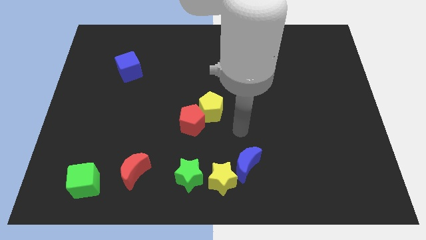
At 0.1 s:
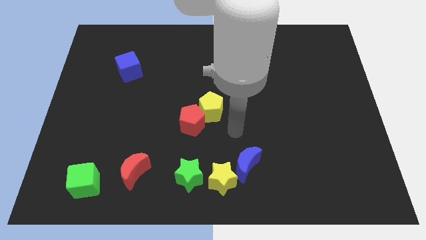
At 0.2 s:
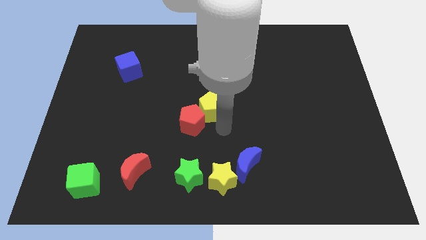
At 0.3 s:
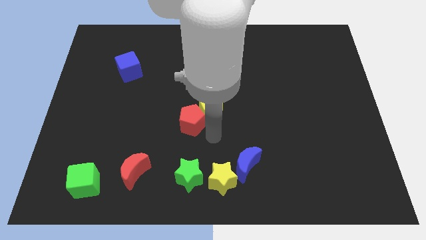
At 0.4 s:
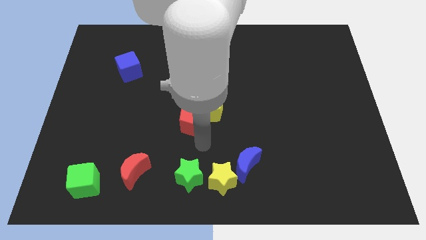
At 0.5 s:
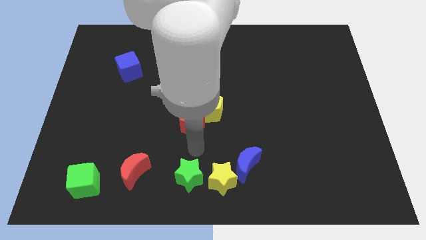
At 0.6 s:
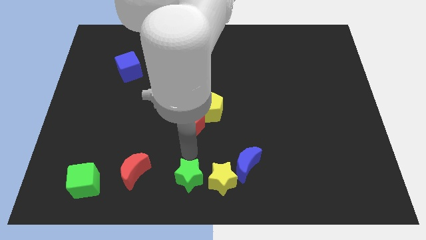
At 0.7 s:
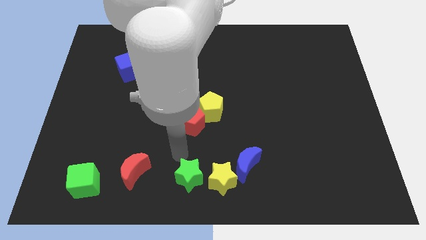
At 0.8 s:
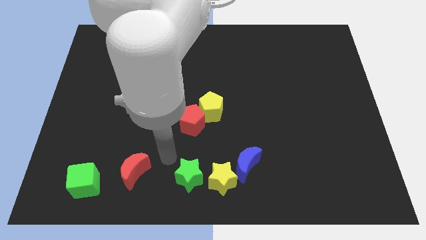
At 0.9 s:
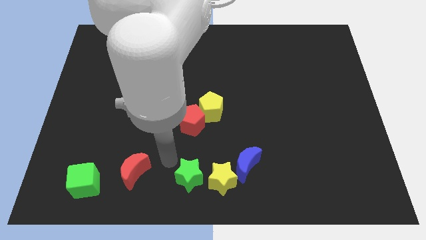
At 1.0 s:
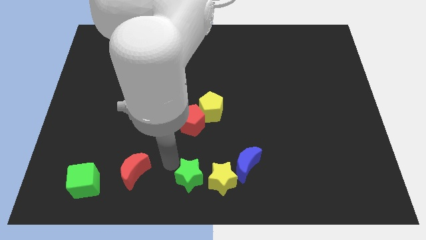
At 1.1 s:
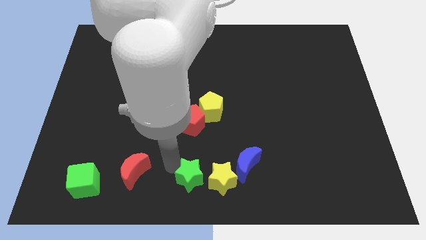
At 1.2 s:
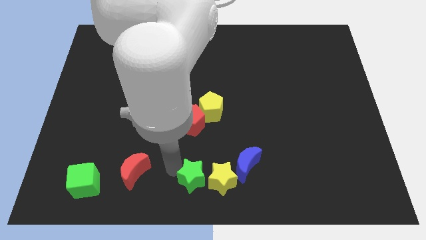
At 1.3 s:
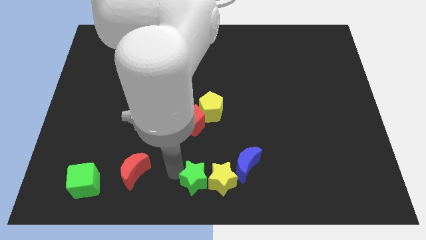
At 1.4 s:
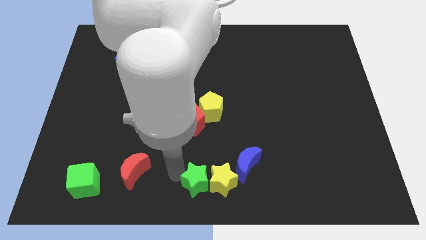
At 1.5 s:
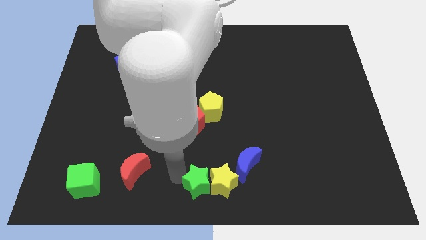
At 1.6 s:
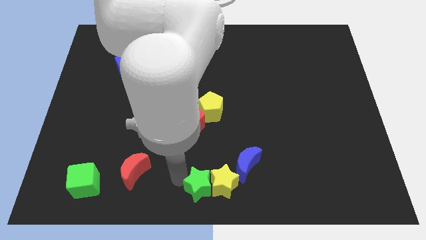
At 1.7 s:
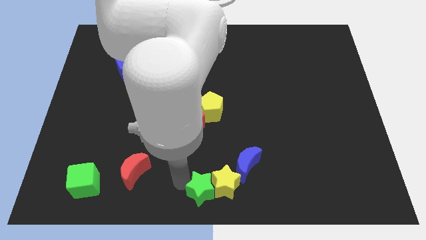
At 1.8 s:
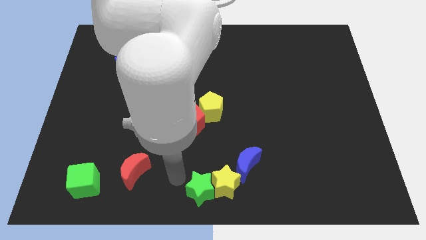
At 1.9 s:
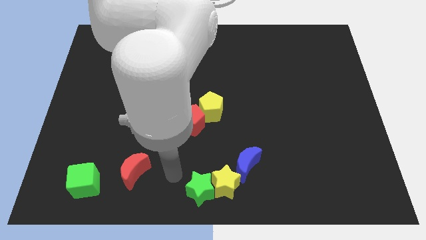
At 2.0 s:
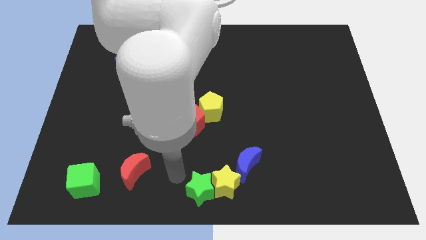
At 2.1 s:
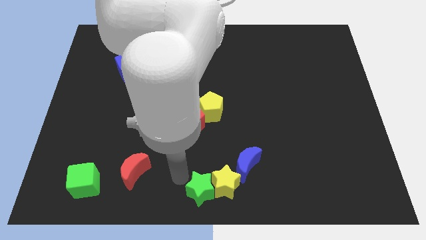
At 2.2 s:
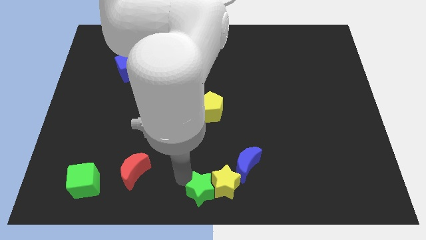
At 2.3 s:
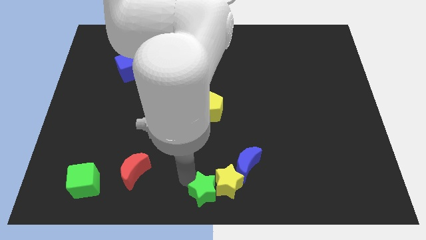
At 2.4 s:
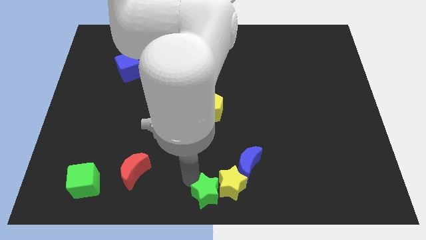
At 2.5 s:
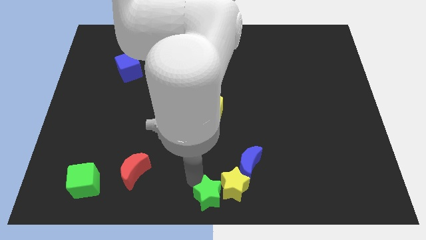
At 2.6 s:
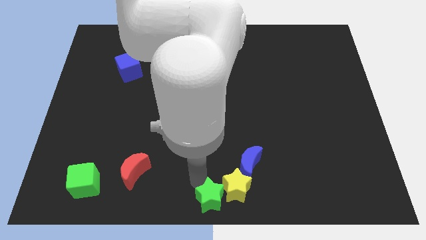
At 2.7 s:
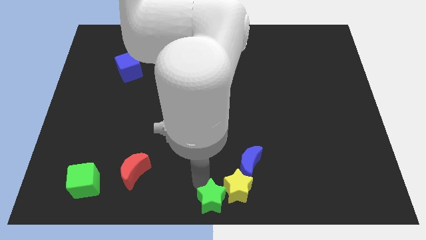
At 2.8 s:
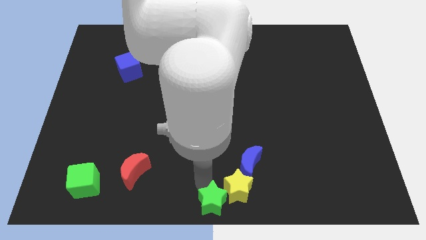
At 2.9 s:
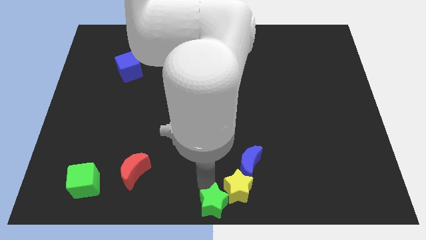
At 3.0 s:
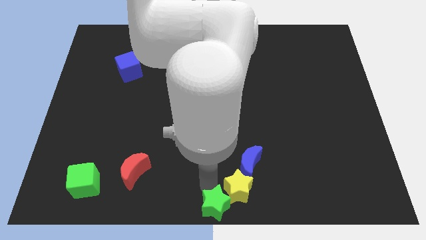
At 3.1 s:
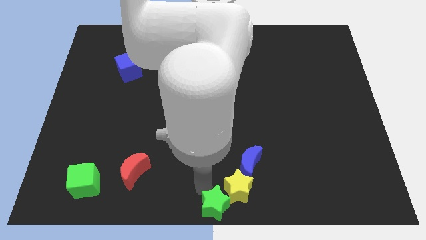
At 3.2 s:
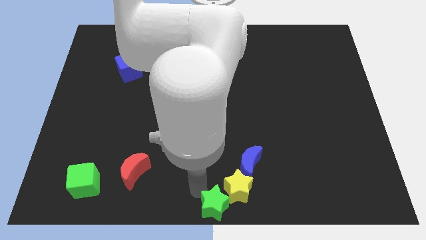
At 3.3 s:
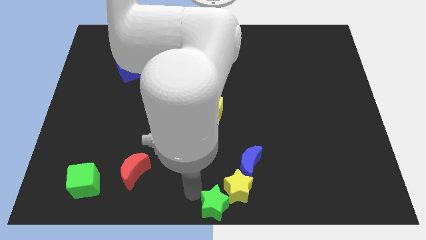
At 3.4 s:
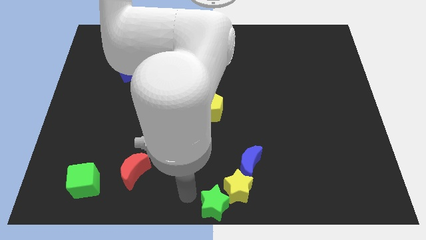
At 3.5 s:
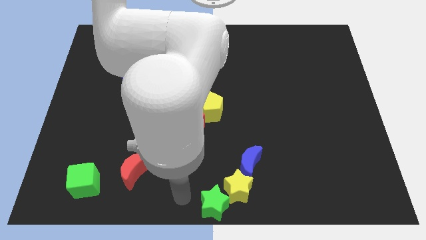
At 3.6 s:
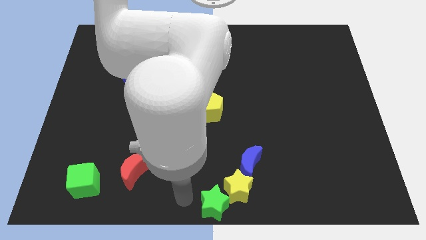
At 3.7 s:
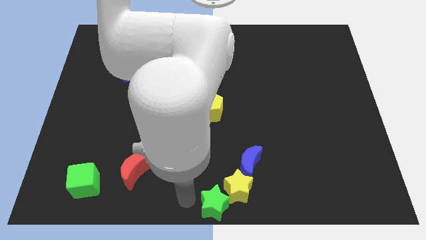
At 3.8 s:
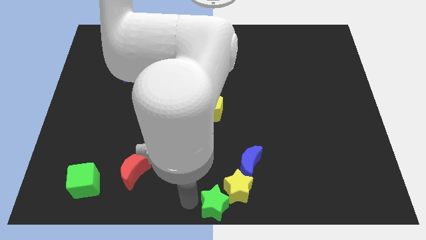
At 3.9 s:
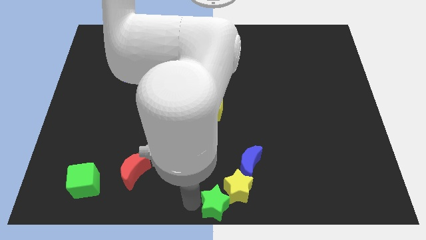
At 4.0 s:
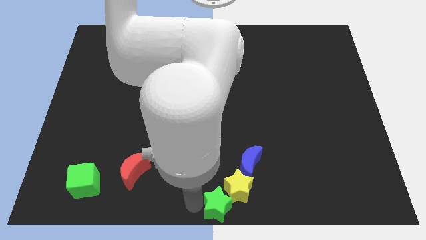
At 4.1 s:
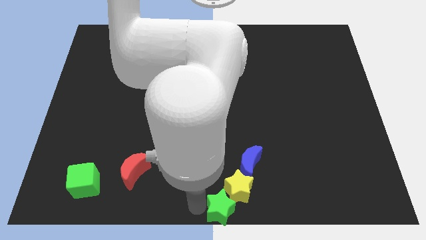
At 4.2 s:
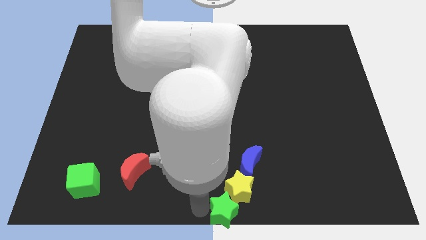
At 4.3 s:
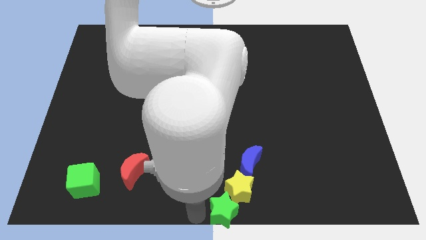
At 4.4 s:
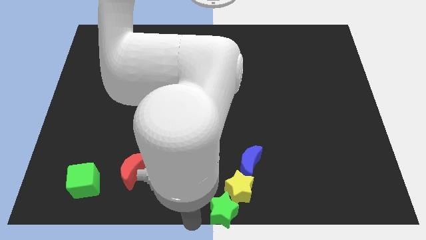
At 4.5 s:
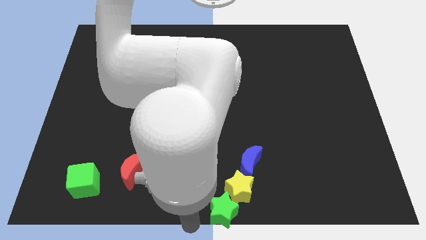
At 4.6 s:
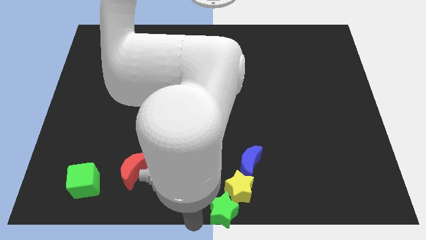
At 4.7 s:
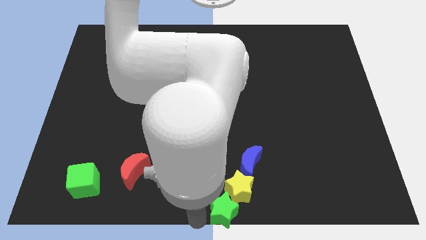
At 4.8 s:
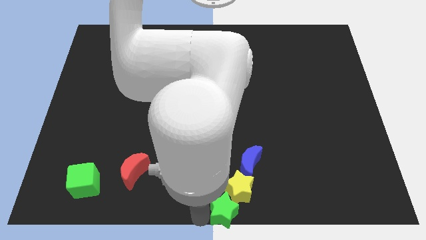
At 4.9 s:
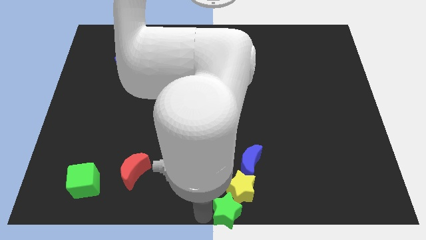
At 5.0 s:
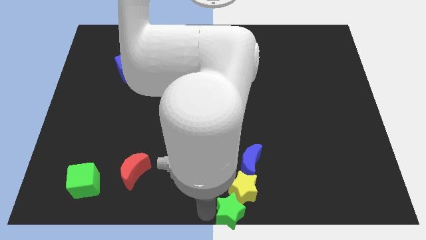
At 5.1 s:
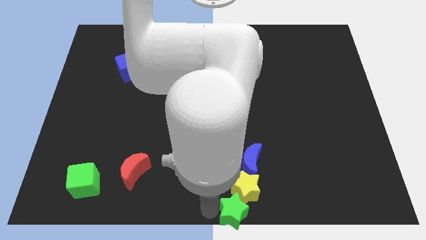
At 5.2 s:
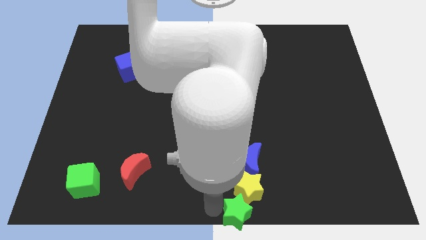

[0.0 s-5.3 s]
push the green star to the right a bit

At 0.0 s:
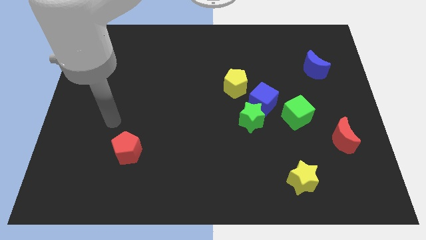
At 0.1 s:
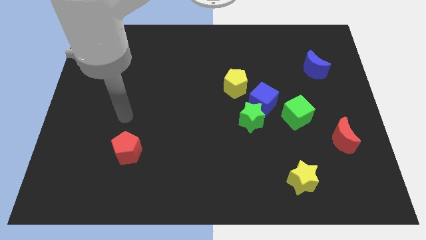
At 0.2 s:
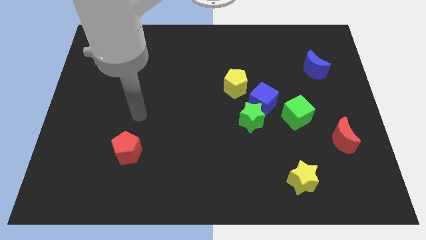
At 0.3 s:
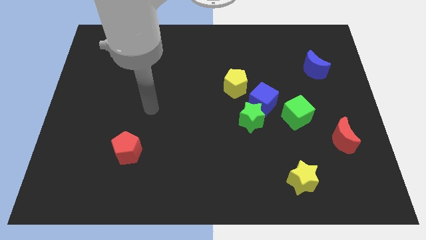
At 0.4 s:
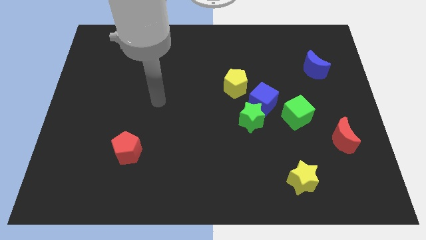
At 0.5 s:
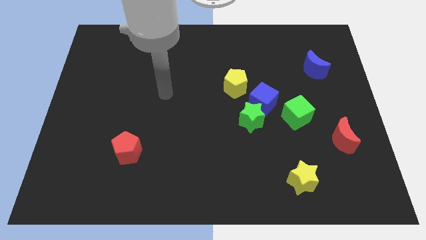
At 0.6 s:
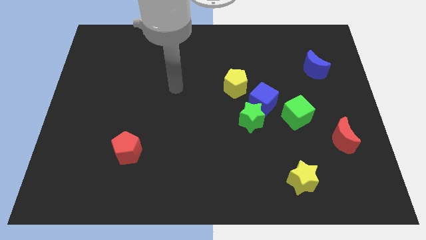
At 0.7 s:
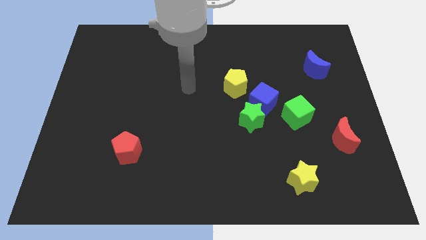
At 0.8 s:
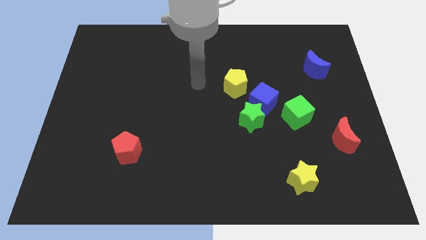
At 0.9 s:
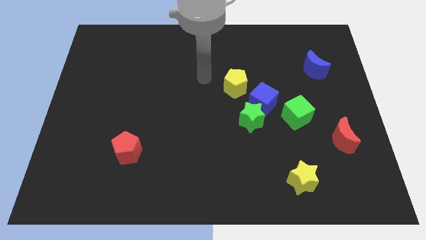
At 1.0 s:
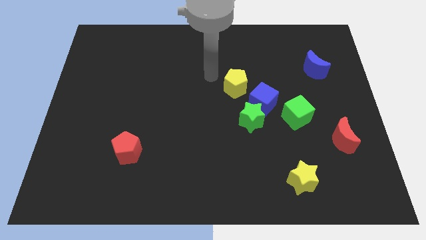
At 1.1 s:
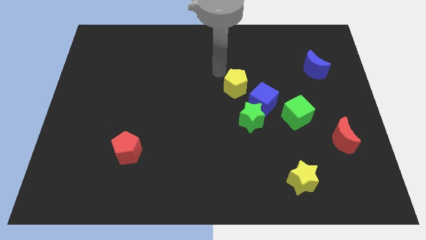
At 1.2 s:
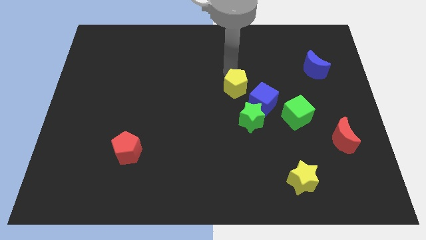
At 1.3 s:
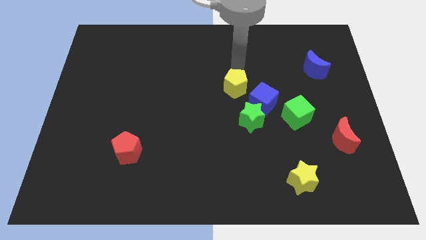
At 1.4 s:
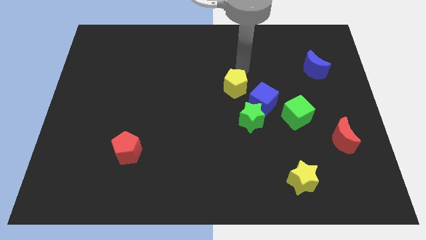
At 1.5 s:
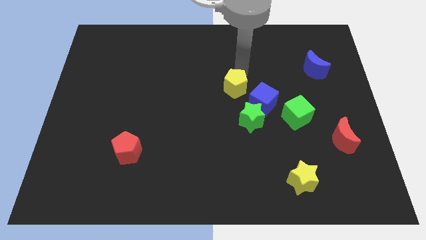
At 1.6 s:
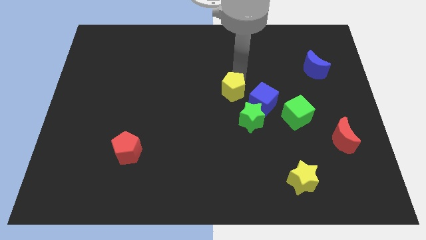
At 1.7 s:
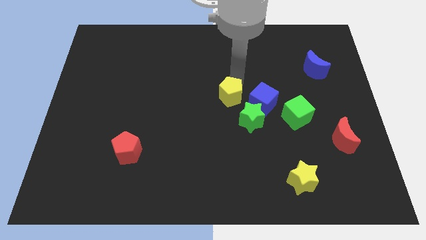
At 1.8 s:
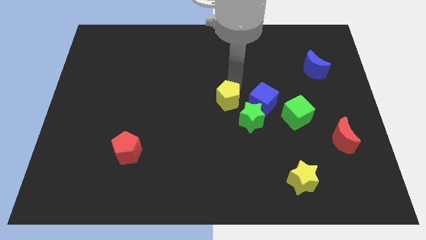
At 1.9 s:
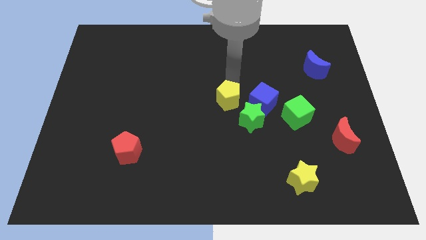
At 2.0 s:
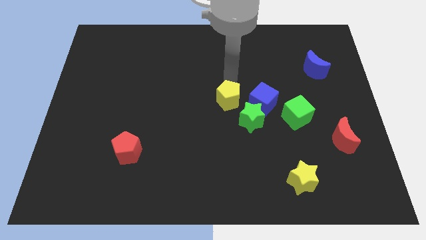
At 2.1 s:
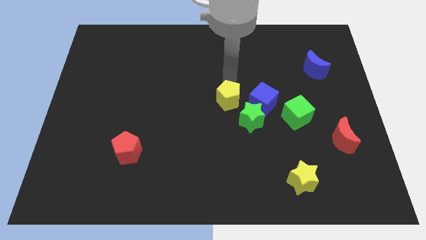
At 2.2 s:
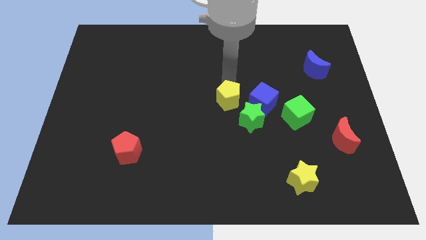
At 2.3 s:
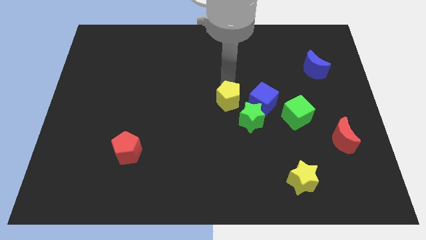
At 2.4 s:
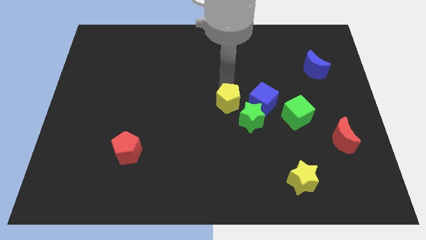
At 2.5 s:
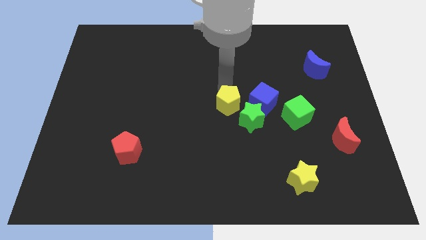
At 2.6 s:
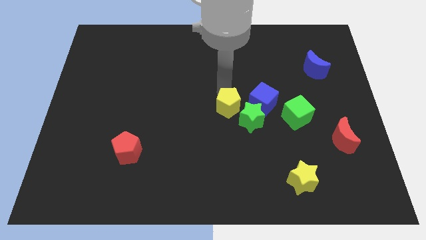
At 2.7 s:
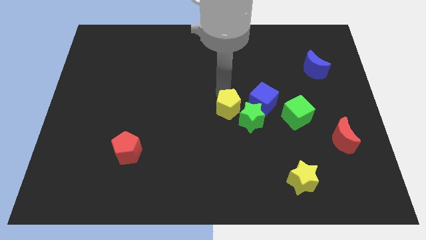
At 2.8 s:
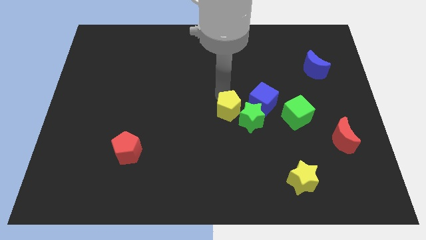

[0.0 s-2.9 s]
slide the yellow pentagon a little bit down

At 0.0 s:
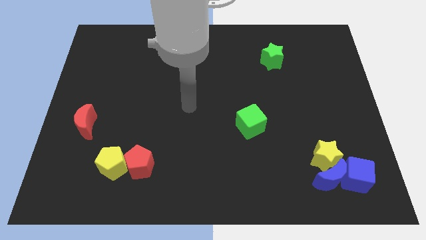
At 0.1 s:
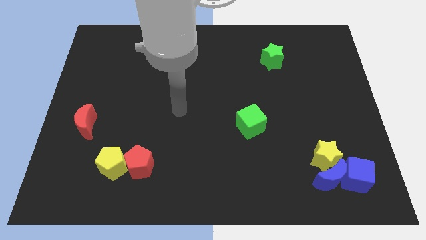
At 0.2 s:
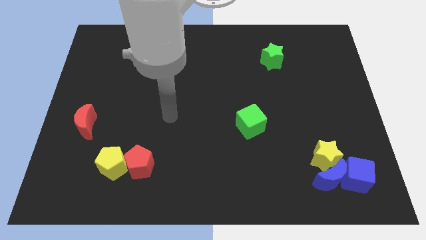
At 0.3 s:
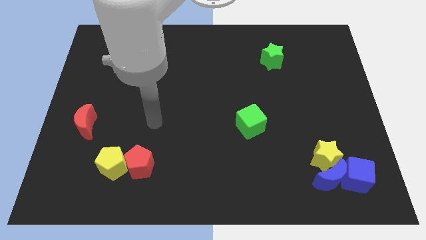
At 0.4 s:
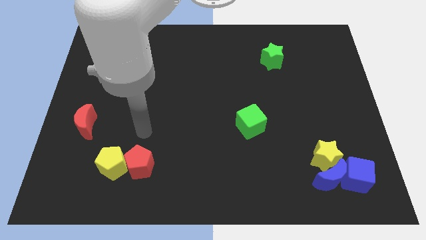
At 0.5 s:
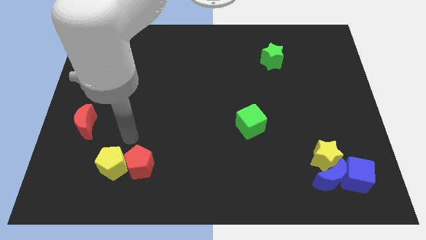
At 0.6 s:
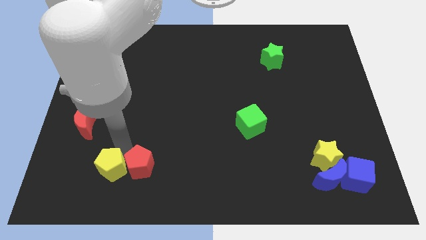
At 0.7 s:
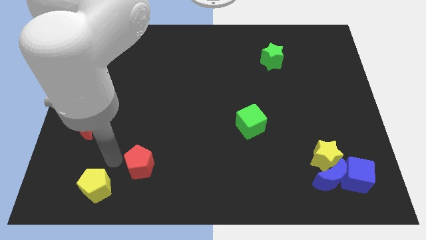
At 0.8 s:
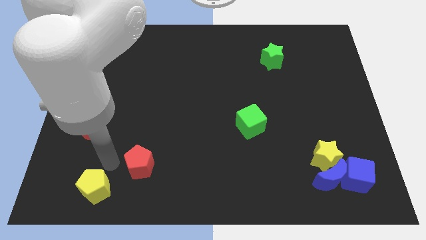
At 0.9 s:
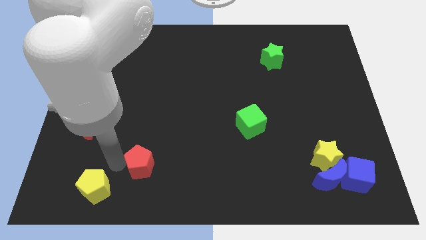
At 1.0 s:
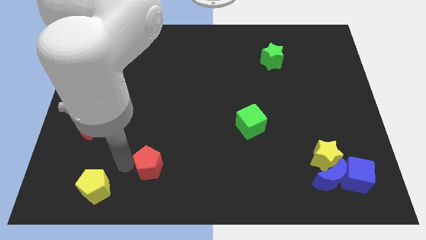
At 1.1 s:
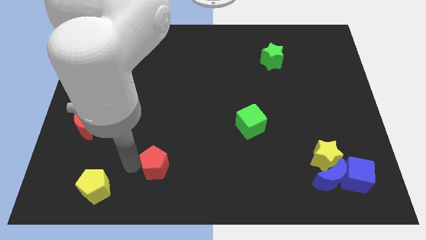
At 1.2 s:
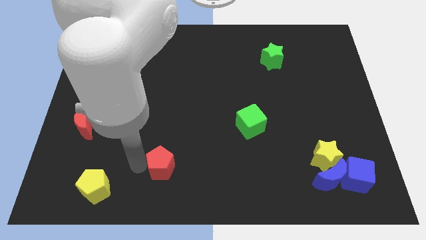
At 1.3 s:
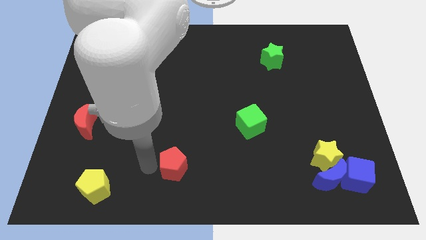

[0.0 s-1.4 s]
slightly slide the red pentagon right
